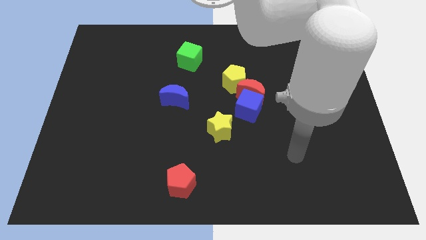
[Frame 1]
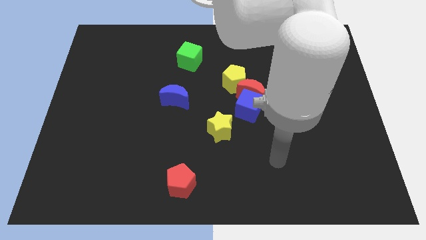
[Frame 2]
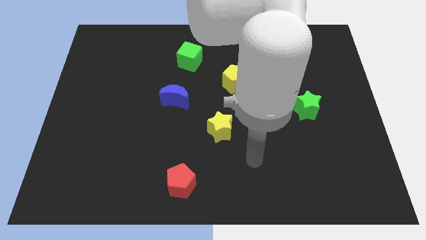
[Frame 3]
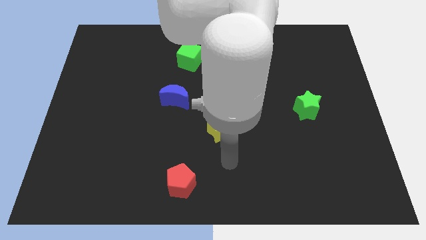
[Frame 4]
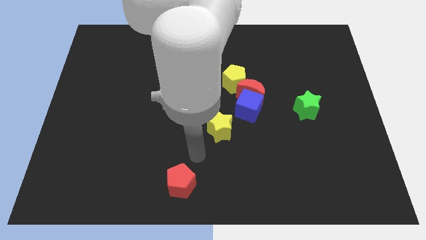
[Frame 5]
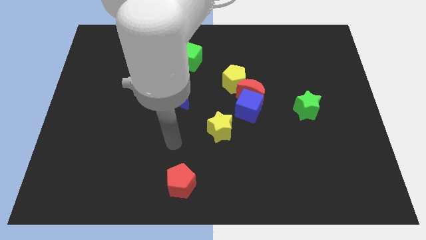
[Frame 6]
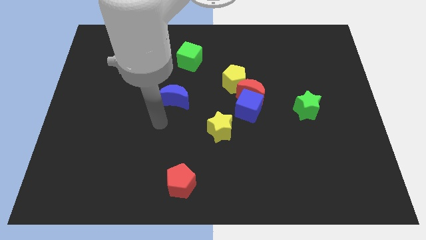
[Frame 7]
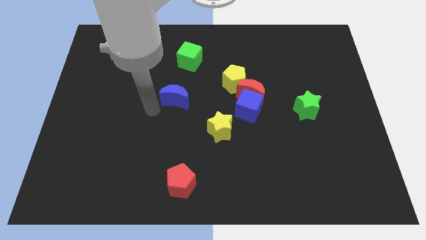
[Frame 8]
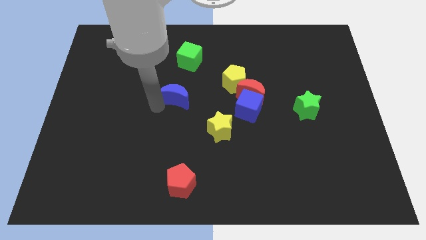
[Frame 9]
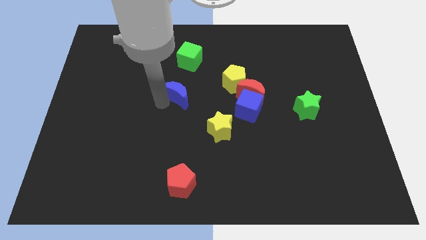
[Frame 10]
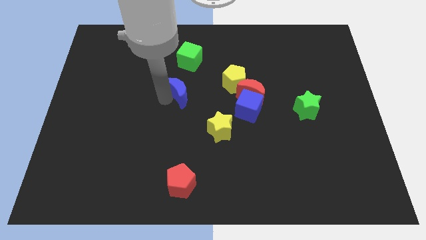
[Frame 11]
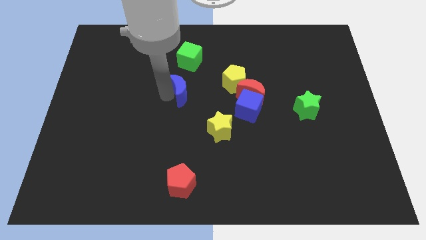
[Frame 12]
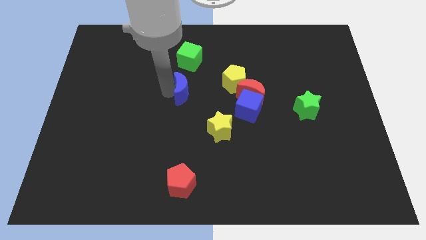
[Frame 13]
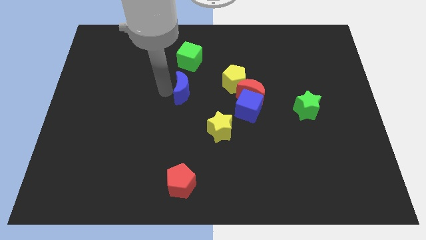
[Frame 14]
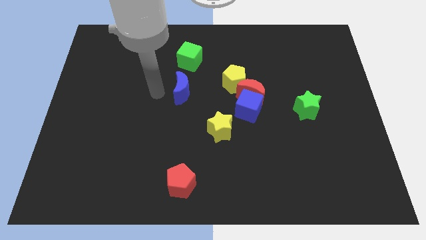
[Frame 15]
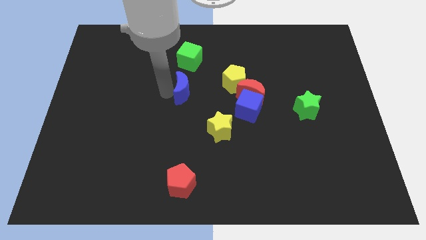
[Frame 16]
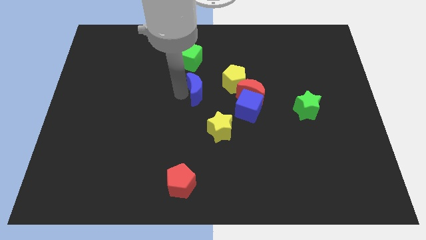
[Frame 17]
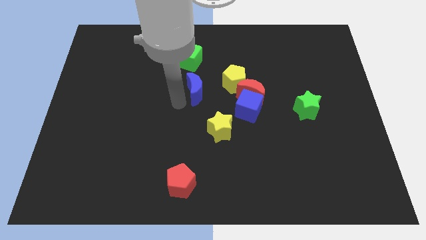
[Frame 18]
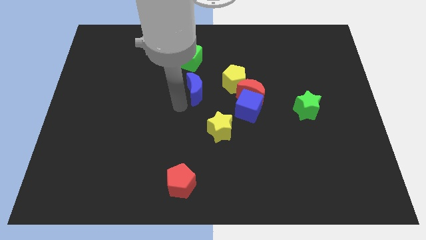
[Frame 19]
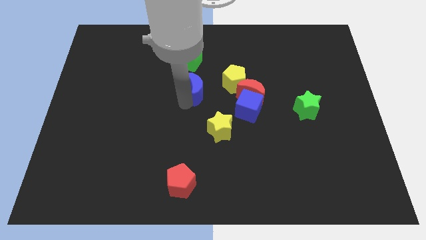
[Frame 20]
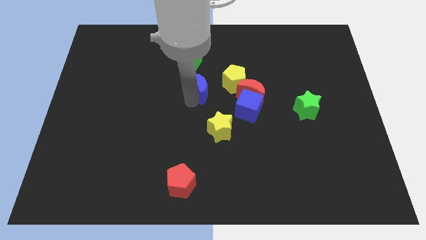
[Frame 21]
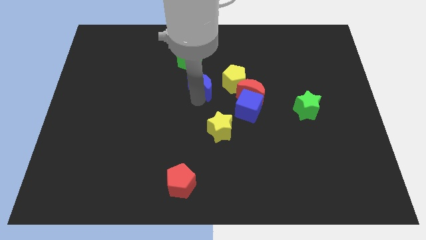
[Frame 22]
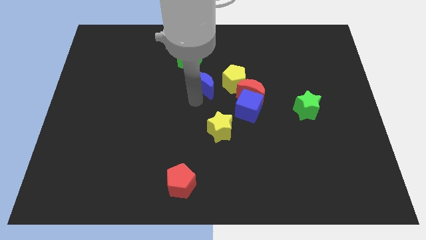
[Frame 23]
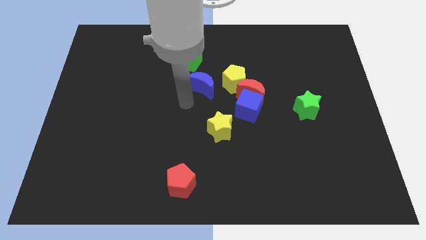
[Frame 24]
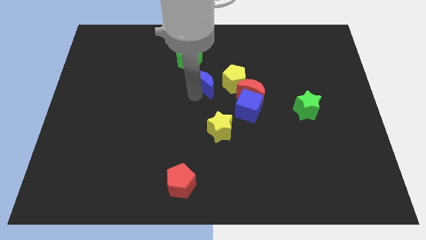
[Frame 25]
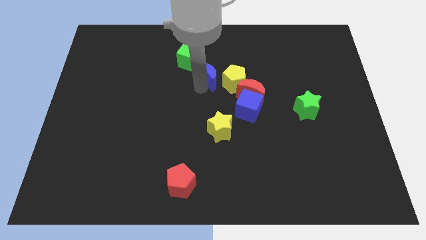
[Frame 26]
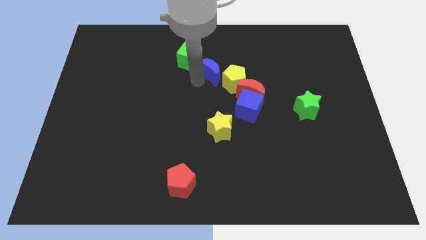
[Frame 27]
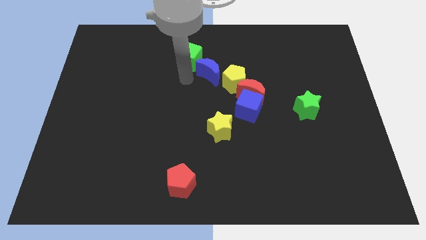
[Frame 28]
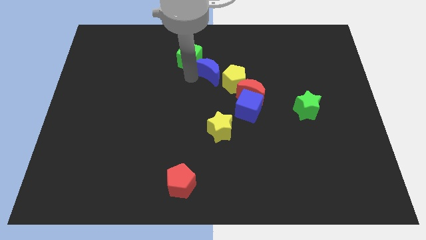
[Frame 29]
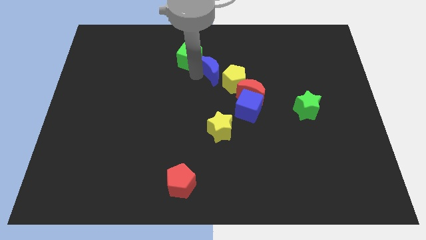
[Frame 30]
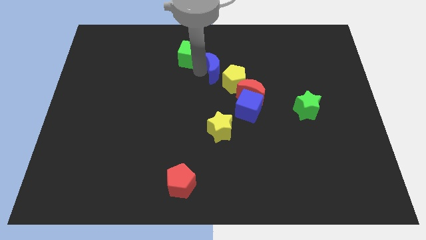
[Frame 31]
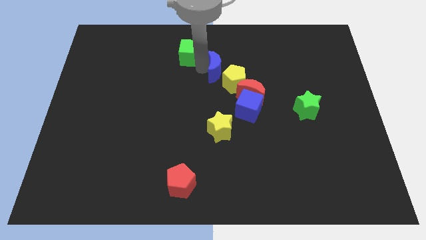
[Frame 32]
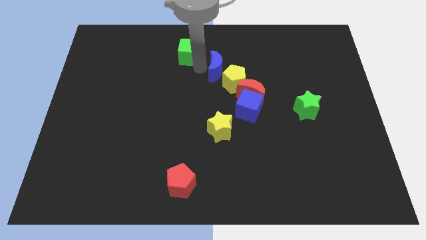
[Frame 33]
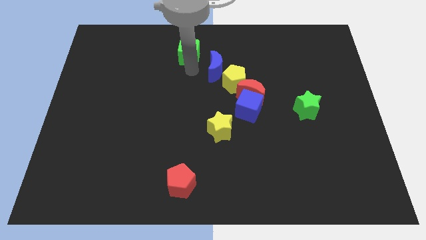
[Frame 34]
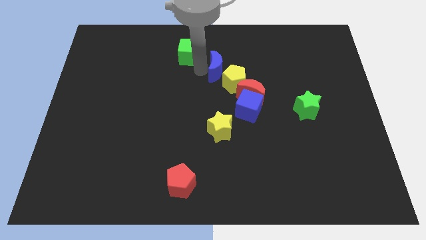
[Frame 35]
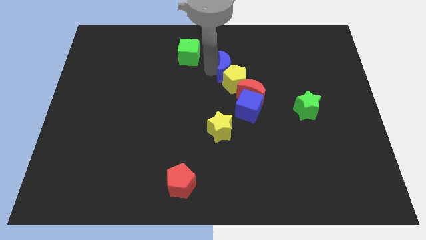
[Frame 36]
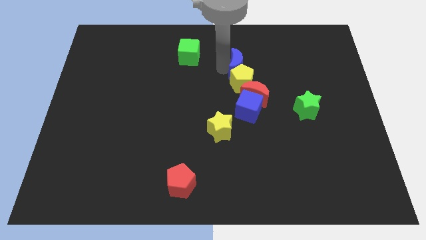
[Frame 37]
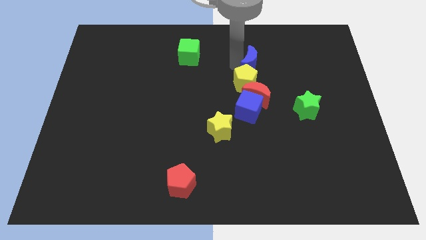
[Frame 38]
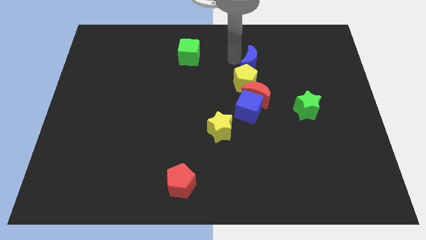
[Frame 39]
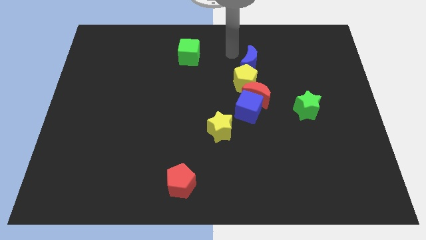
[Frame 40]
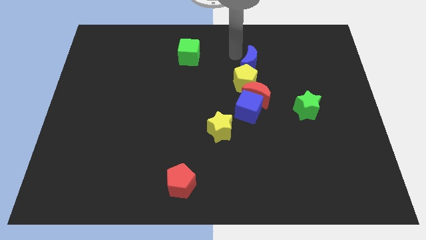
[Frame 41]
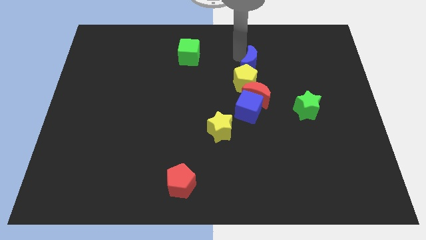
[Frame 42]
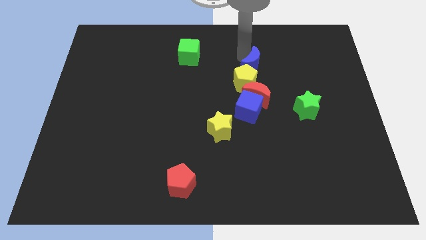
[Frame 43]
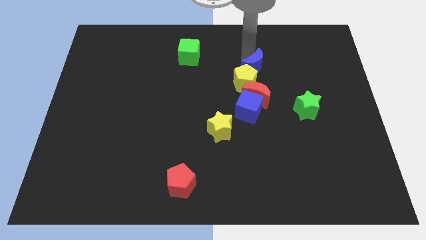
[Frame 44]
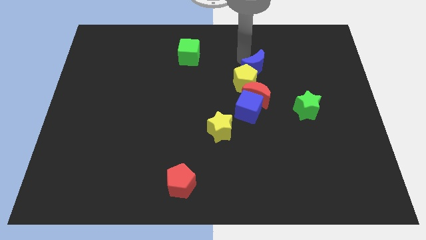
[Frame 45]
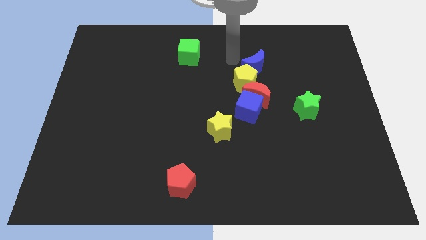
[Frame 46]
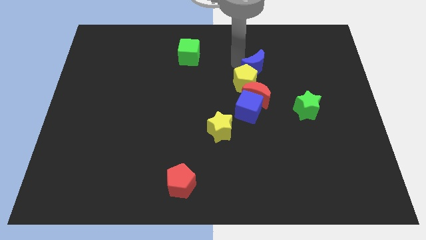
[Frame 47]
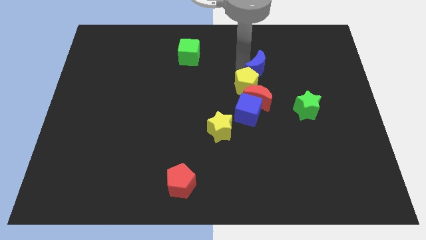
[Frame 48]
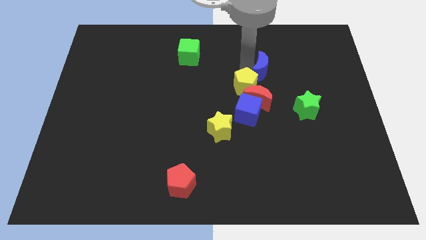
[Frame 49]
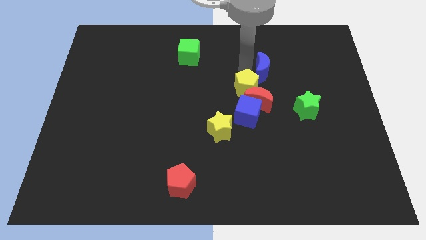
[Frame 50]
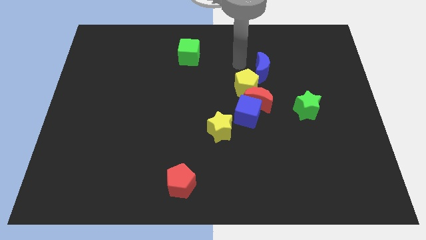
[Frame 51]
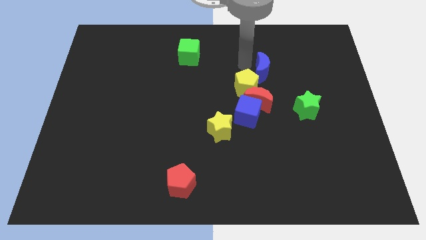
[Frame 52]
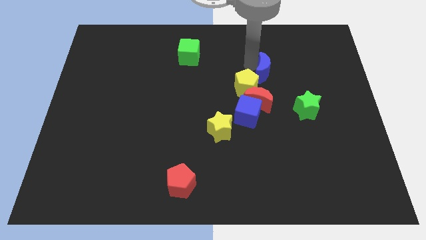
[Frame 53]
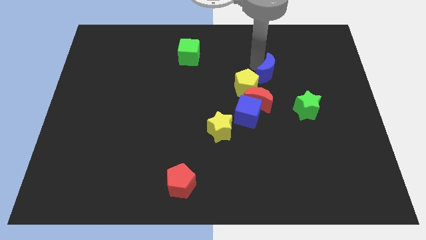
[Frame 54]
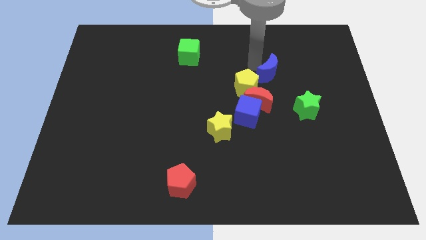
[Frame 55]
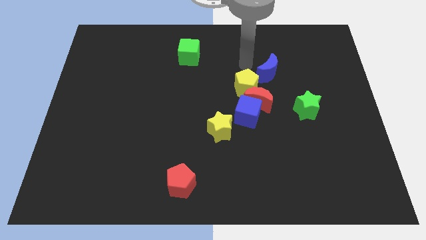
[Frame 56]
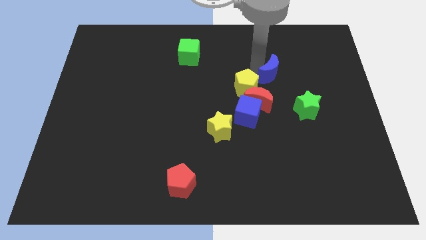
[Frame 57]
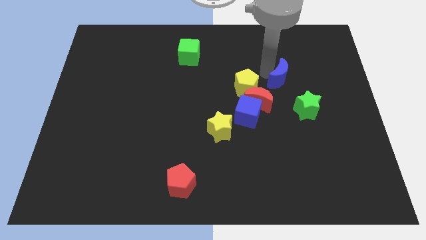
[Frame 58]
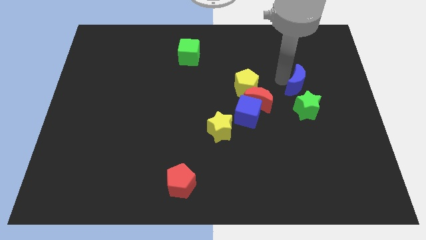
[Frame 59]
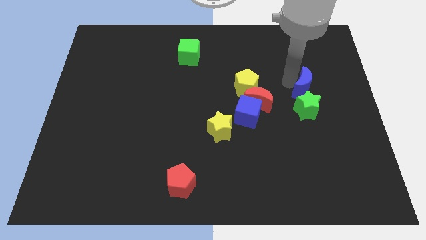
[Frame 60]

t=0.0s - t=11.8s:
move the blue moon to the top right of the green star

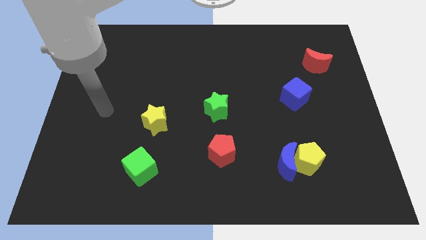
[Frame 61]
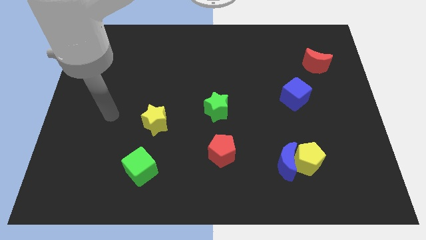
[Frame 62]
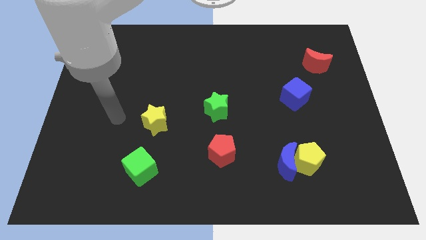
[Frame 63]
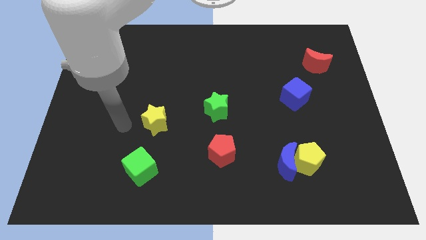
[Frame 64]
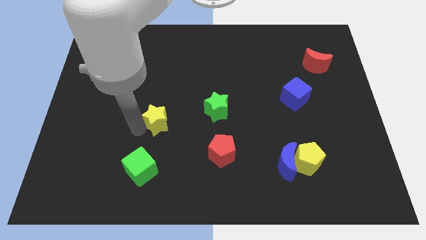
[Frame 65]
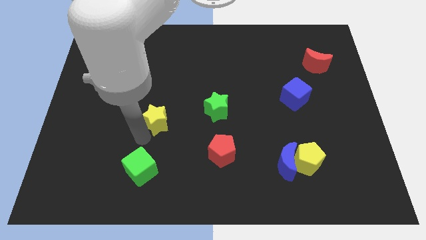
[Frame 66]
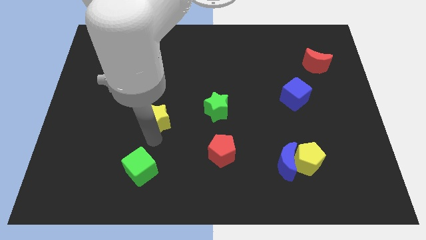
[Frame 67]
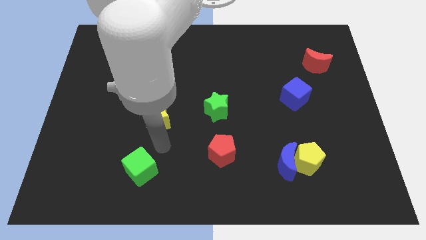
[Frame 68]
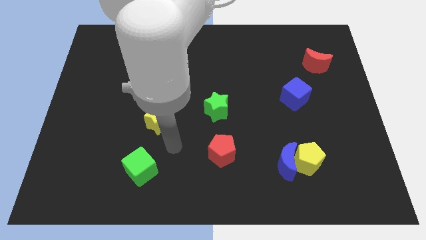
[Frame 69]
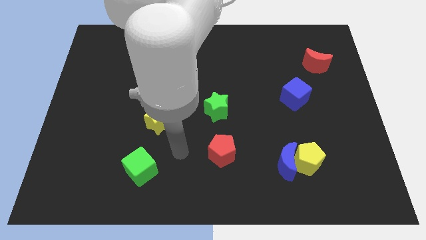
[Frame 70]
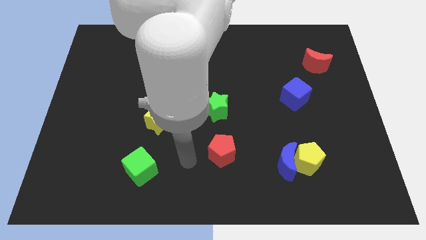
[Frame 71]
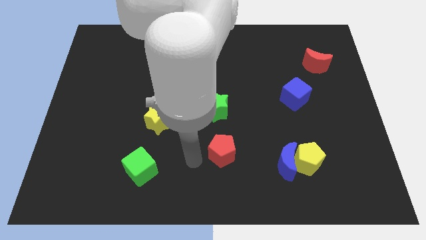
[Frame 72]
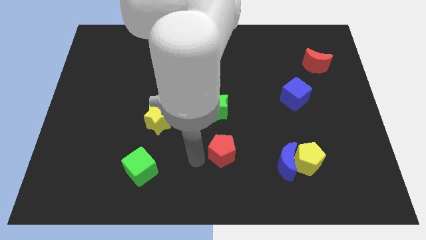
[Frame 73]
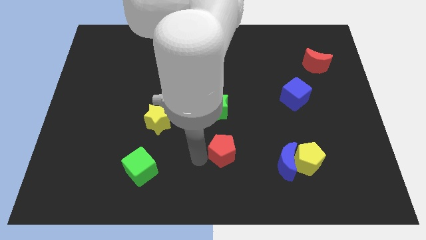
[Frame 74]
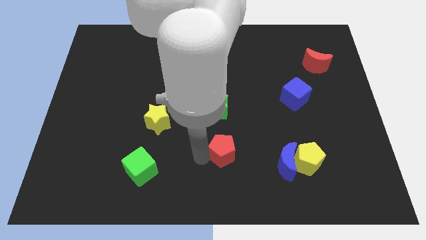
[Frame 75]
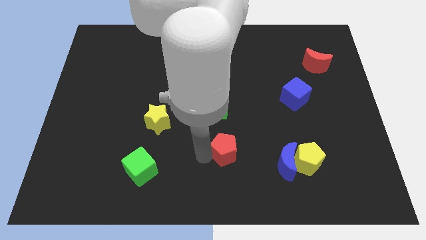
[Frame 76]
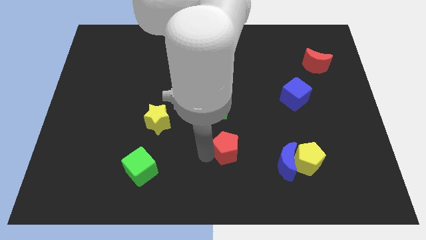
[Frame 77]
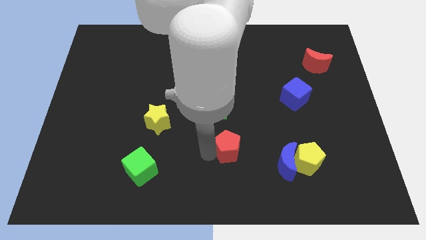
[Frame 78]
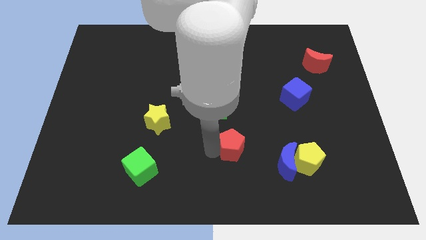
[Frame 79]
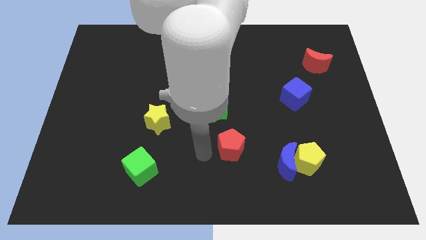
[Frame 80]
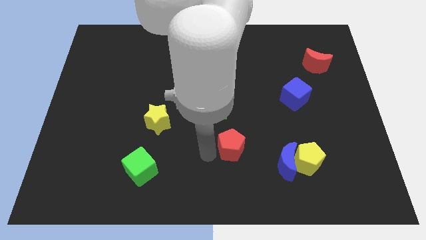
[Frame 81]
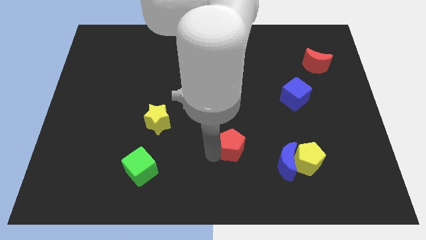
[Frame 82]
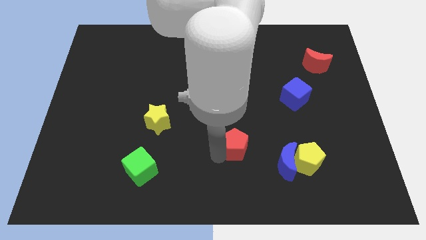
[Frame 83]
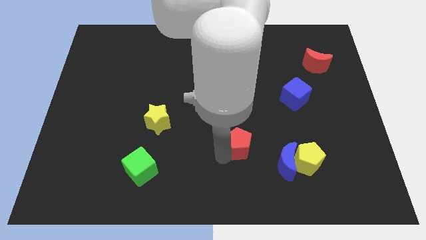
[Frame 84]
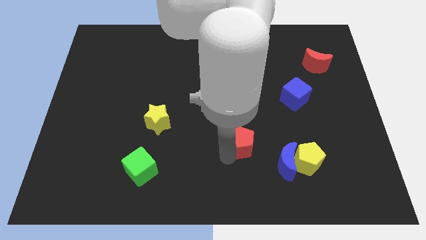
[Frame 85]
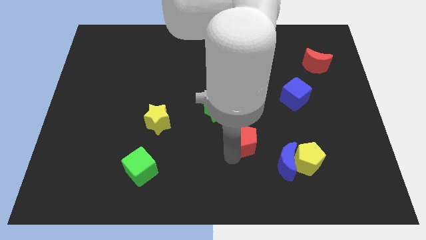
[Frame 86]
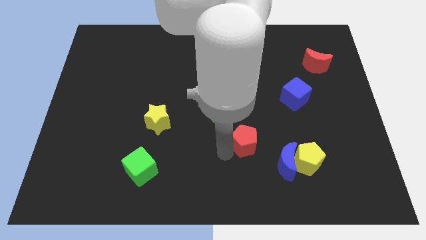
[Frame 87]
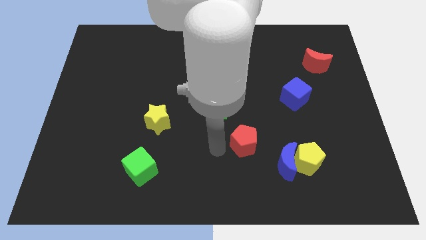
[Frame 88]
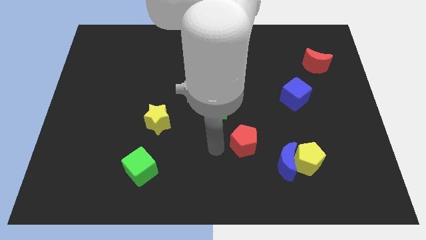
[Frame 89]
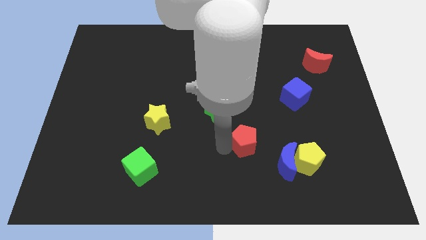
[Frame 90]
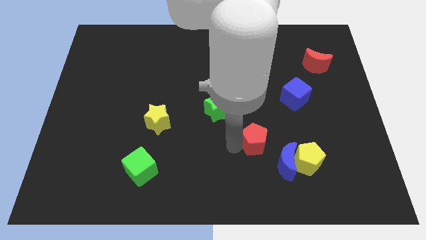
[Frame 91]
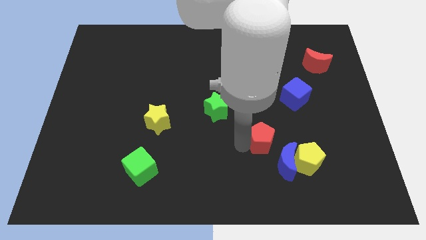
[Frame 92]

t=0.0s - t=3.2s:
move the red pentagon to the top left of the yellow pentagon
